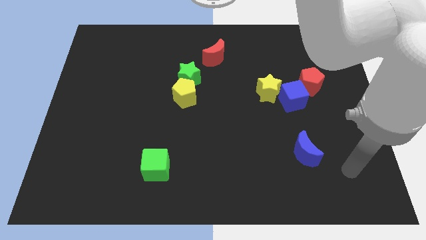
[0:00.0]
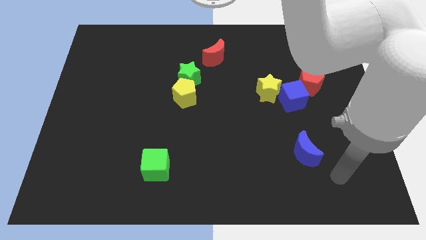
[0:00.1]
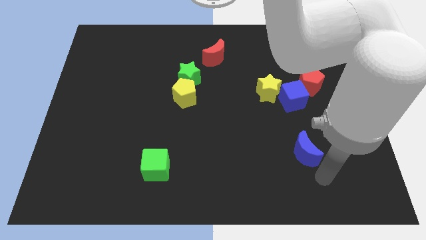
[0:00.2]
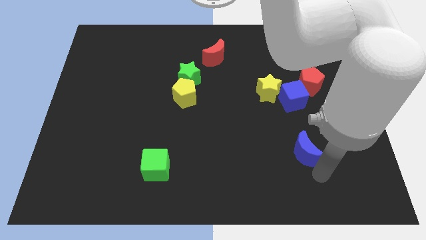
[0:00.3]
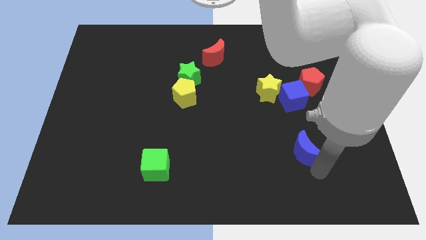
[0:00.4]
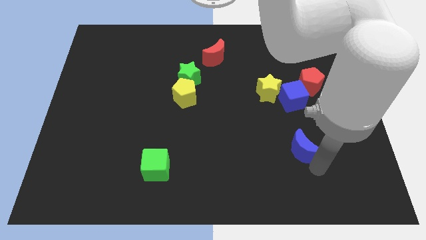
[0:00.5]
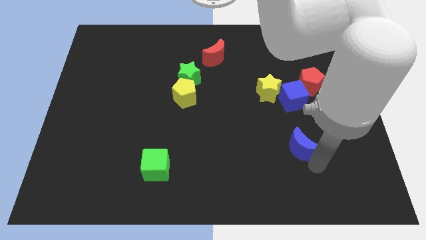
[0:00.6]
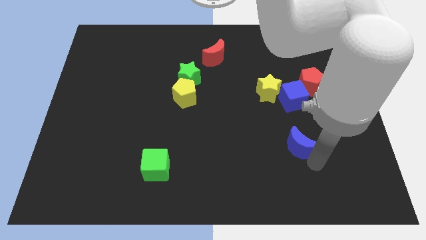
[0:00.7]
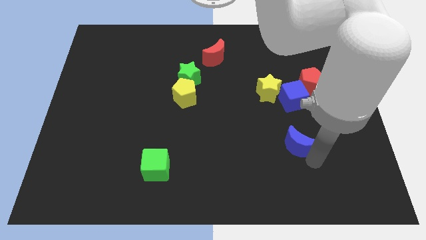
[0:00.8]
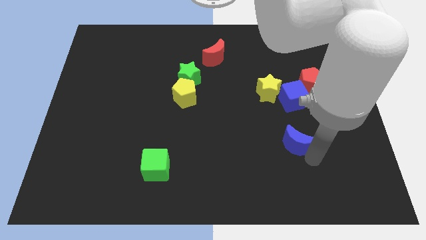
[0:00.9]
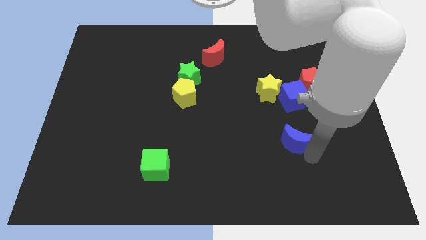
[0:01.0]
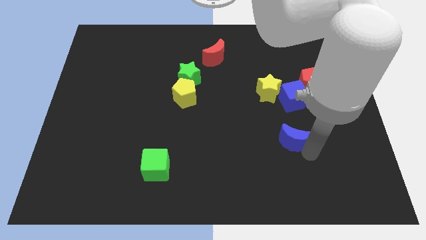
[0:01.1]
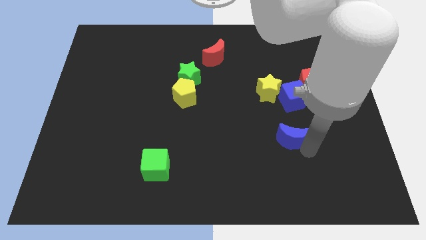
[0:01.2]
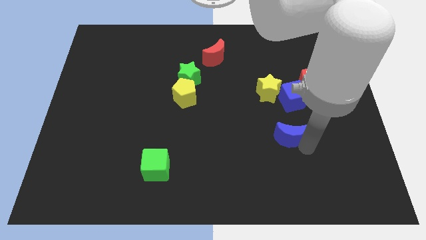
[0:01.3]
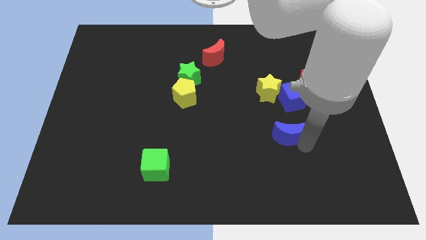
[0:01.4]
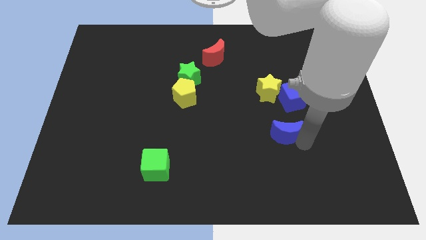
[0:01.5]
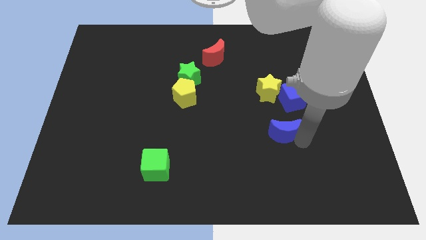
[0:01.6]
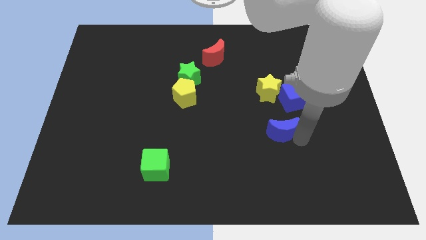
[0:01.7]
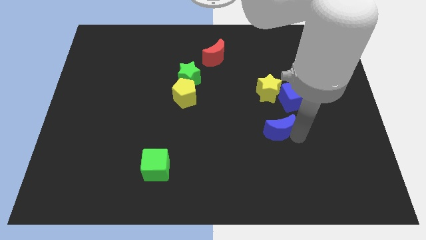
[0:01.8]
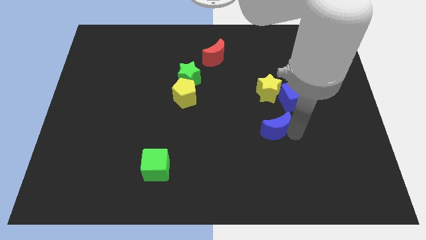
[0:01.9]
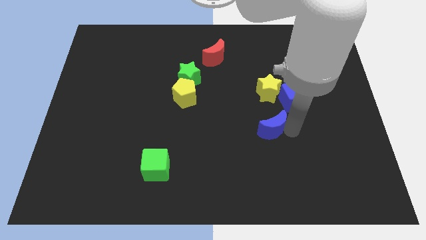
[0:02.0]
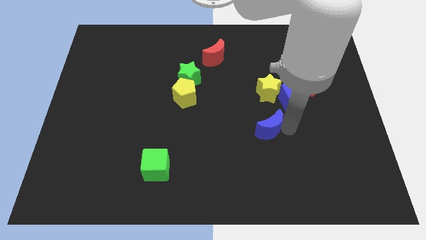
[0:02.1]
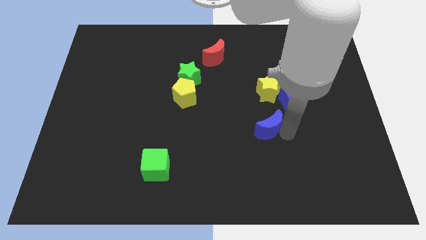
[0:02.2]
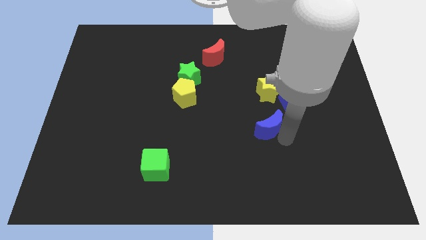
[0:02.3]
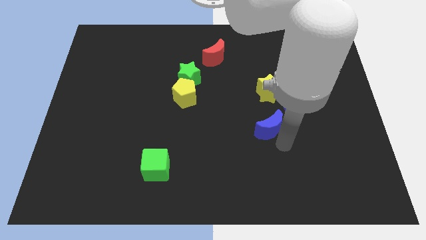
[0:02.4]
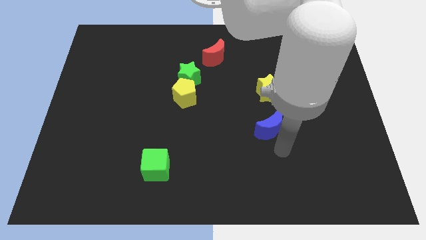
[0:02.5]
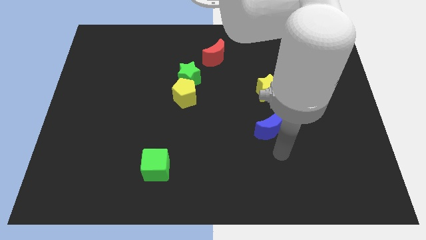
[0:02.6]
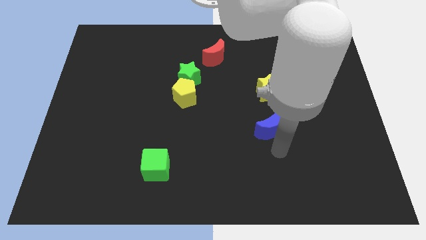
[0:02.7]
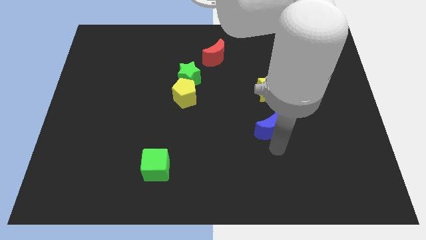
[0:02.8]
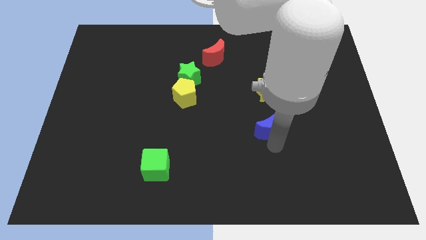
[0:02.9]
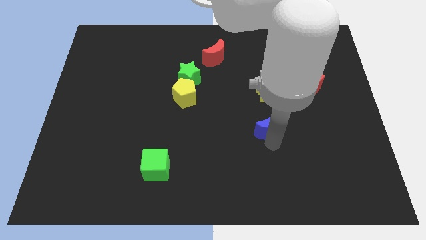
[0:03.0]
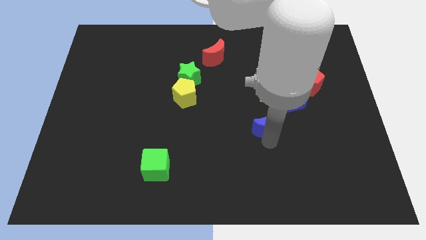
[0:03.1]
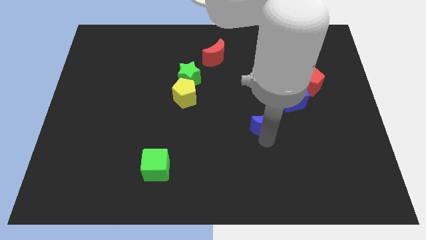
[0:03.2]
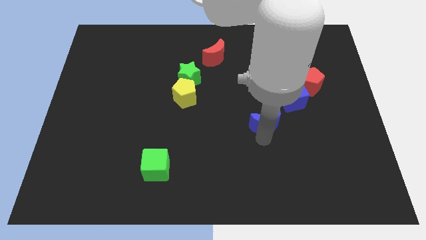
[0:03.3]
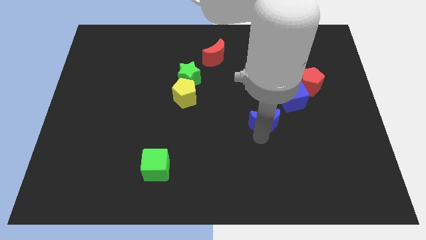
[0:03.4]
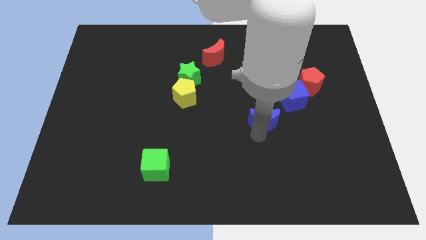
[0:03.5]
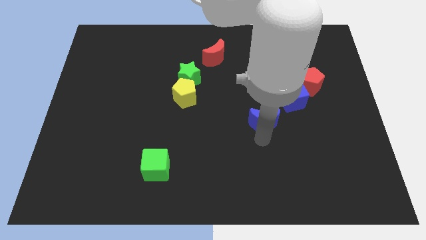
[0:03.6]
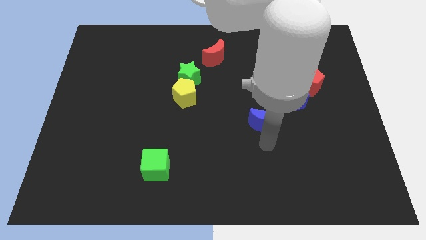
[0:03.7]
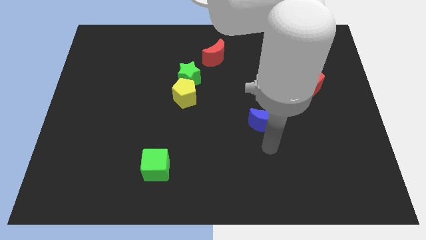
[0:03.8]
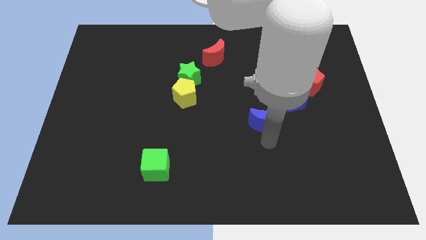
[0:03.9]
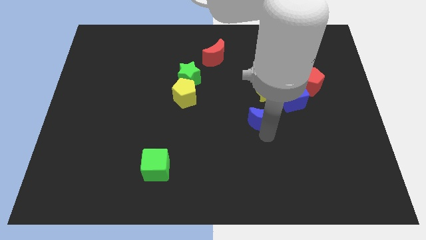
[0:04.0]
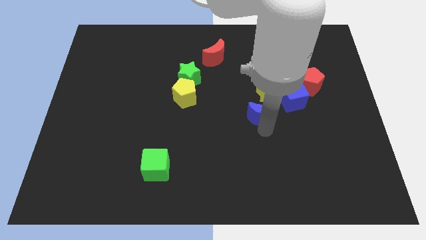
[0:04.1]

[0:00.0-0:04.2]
push the blue moon up a little

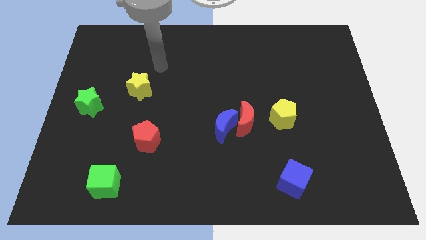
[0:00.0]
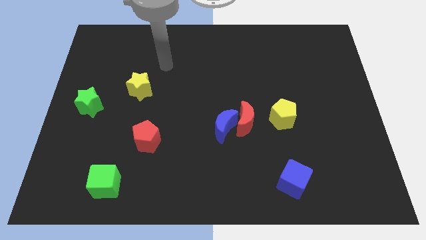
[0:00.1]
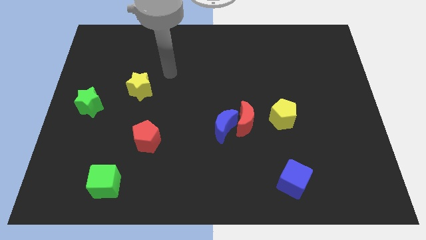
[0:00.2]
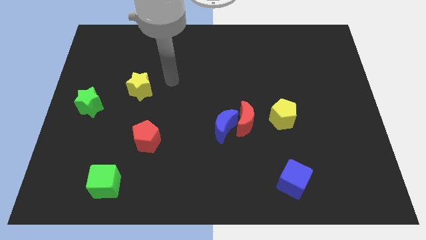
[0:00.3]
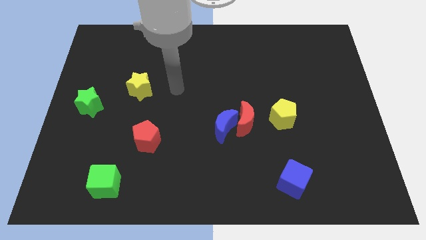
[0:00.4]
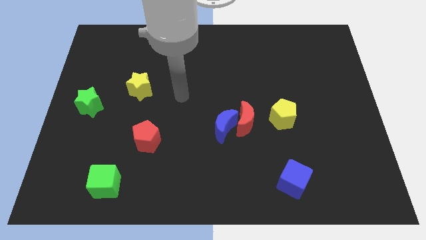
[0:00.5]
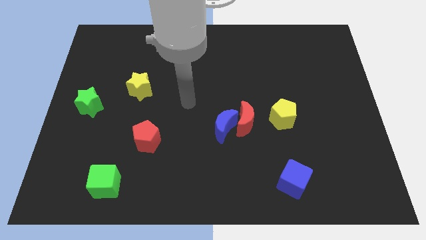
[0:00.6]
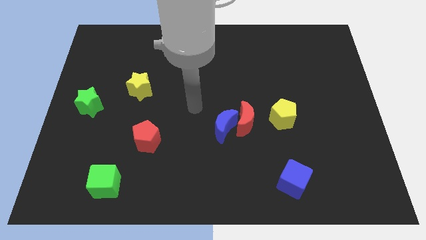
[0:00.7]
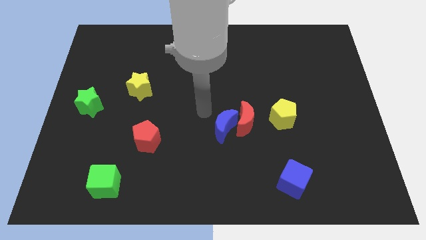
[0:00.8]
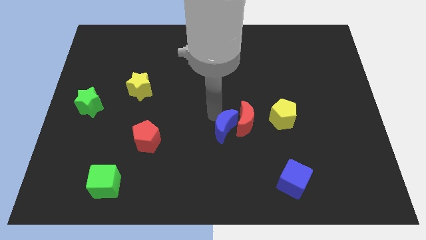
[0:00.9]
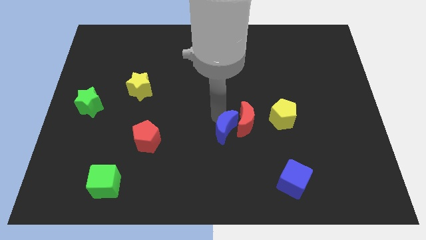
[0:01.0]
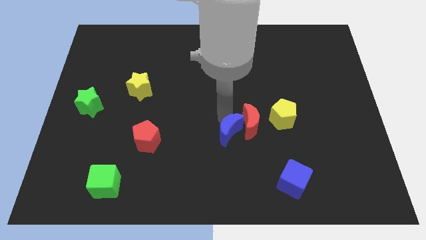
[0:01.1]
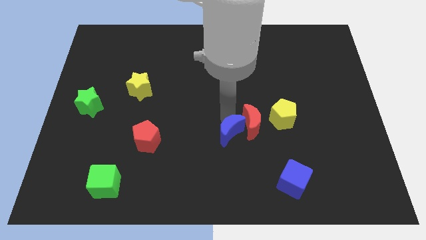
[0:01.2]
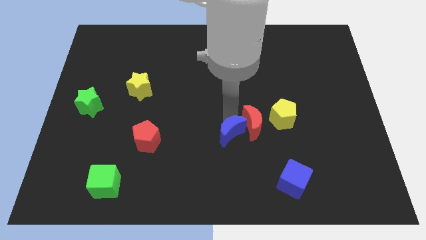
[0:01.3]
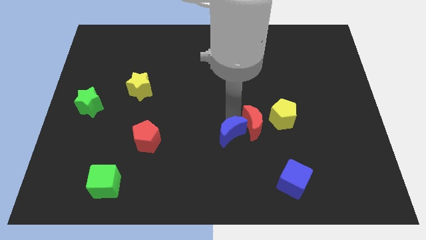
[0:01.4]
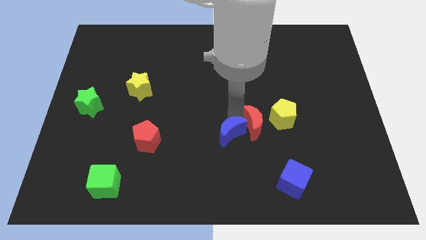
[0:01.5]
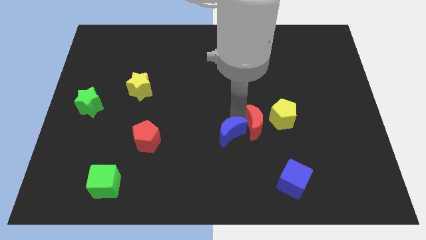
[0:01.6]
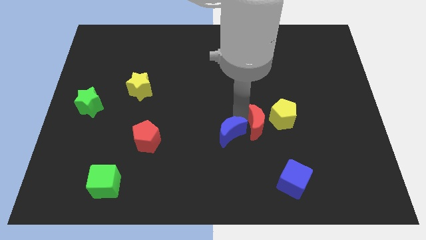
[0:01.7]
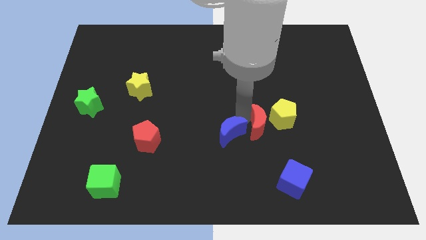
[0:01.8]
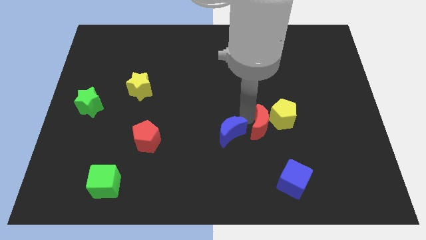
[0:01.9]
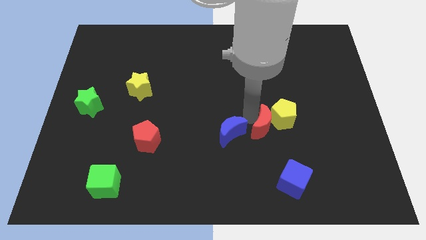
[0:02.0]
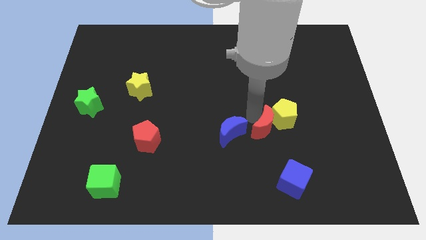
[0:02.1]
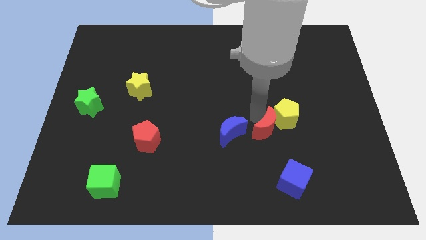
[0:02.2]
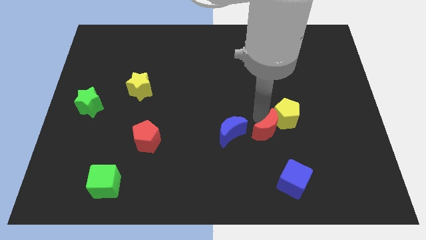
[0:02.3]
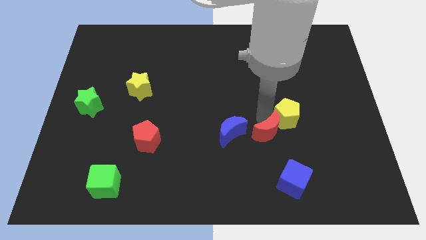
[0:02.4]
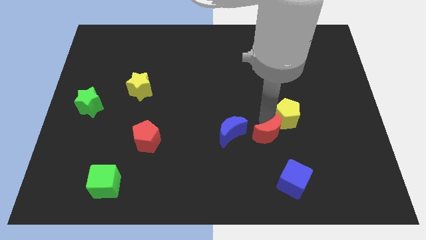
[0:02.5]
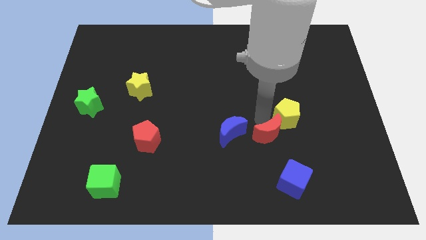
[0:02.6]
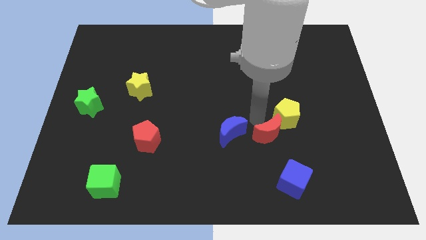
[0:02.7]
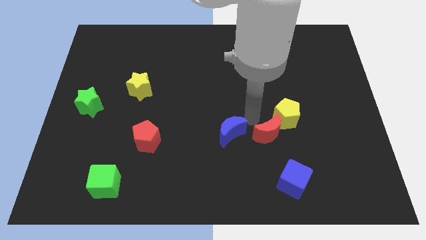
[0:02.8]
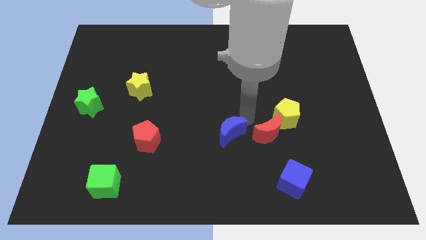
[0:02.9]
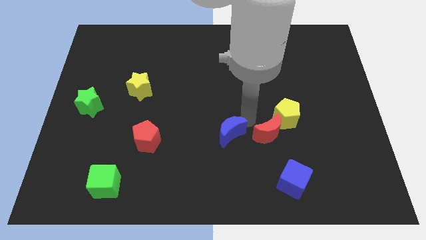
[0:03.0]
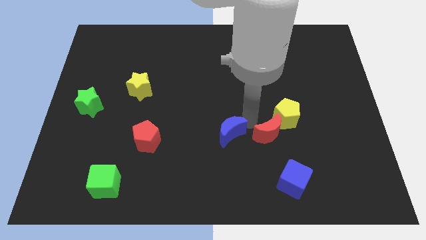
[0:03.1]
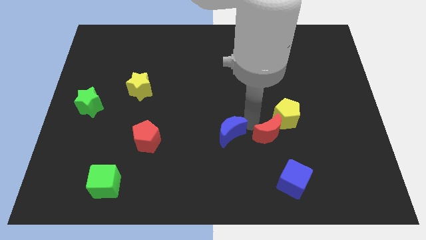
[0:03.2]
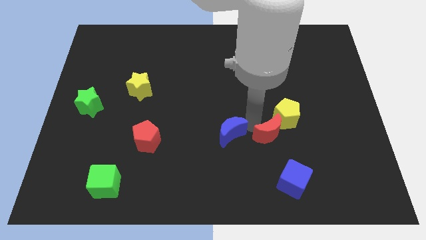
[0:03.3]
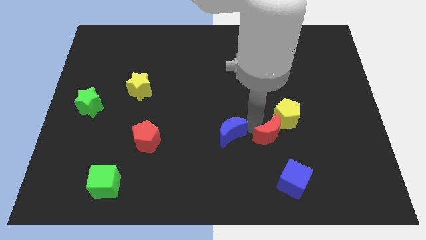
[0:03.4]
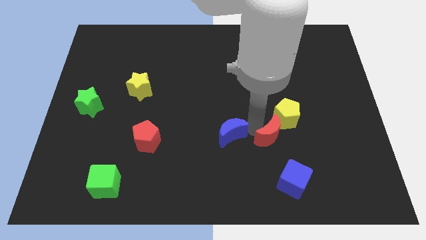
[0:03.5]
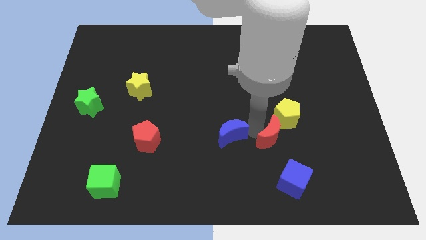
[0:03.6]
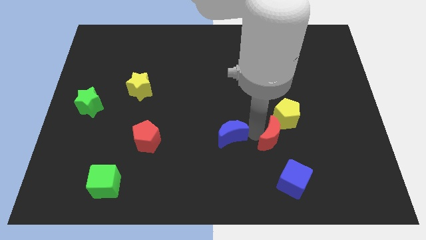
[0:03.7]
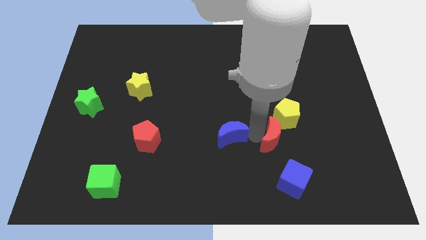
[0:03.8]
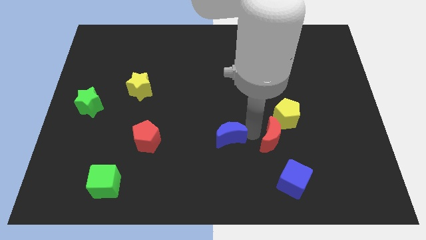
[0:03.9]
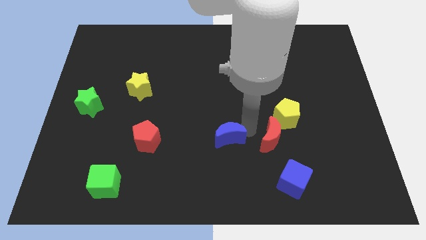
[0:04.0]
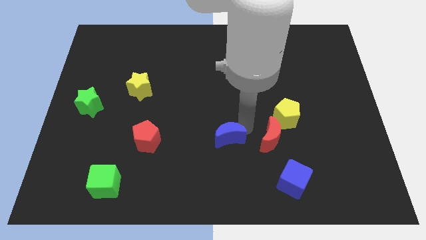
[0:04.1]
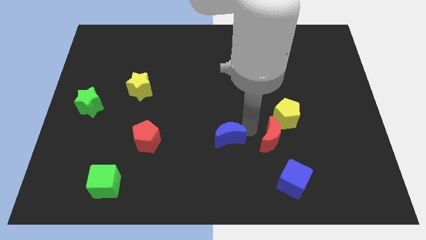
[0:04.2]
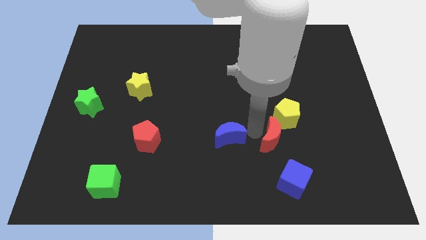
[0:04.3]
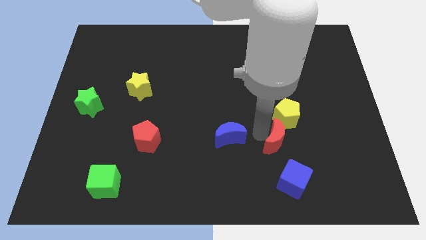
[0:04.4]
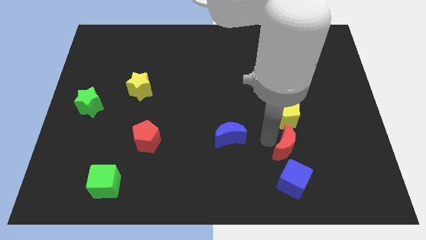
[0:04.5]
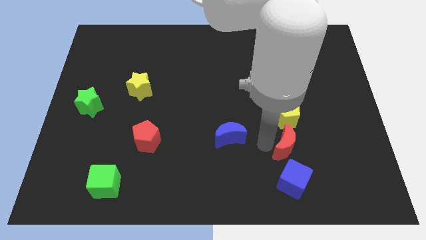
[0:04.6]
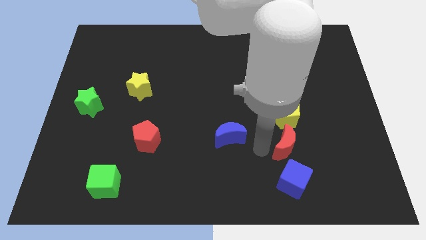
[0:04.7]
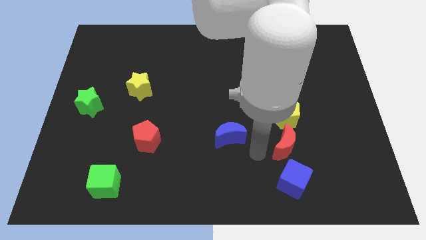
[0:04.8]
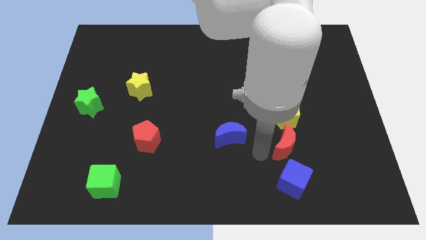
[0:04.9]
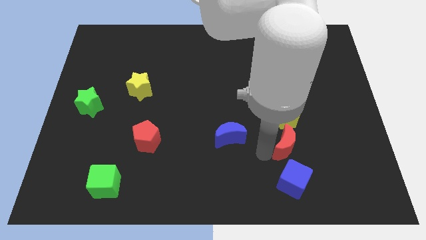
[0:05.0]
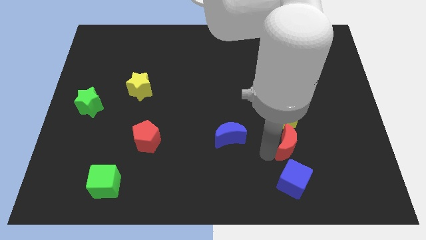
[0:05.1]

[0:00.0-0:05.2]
move the red moon a bit right
